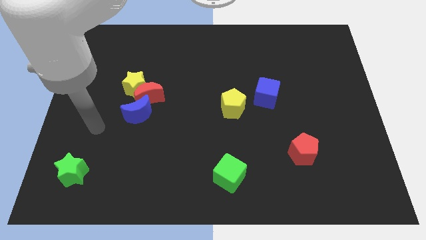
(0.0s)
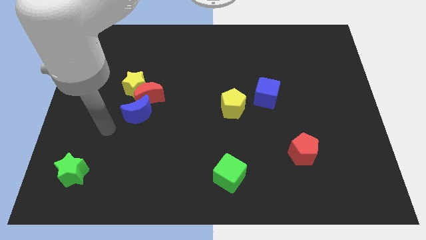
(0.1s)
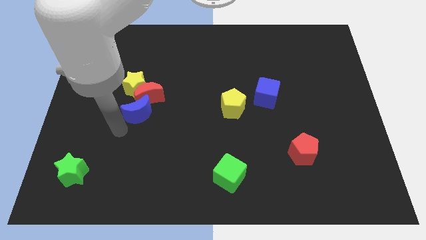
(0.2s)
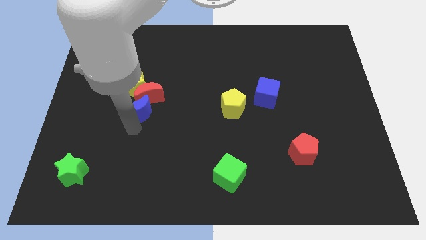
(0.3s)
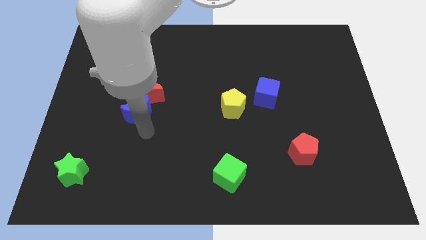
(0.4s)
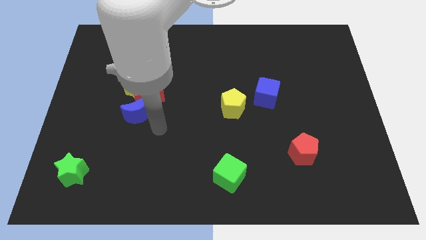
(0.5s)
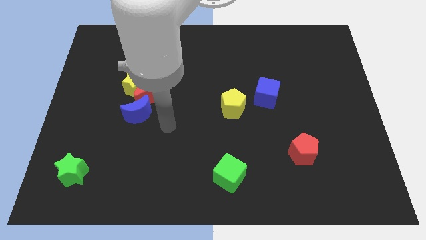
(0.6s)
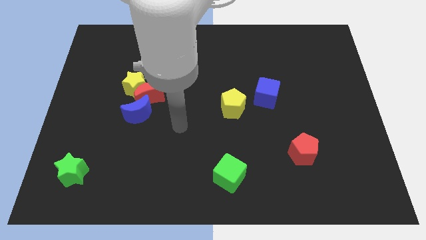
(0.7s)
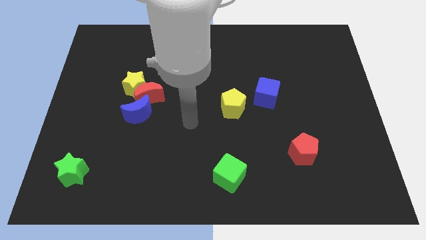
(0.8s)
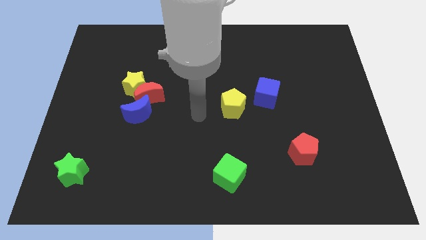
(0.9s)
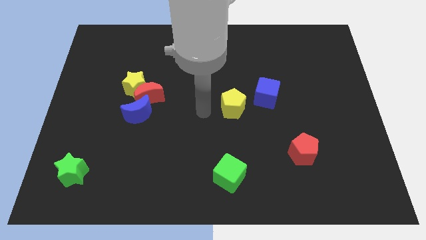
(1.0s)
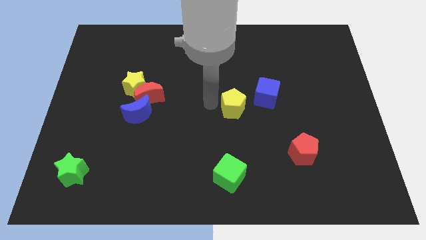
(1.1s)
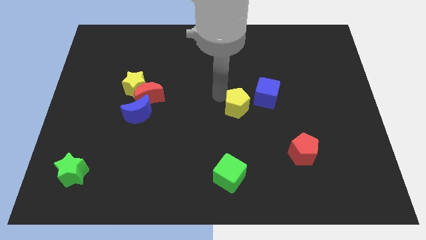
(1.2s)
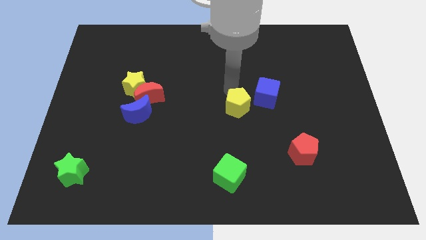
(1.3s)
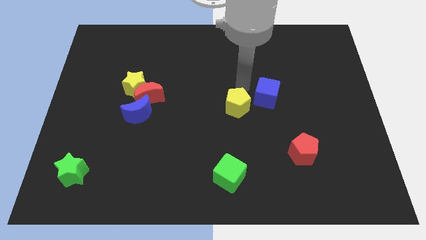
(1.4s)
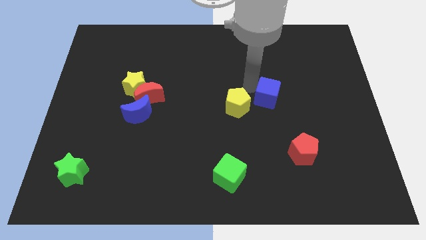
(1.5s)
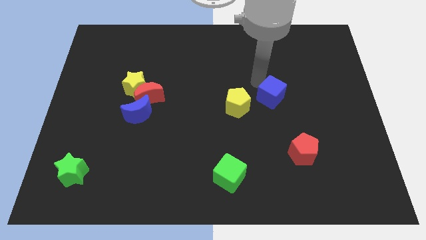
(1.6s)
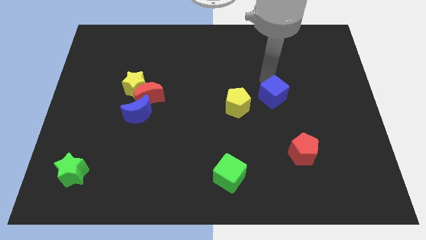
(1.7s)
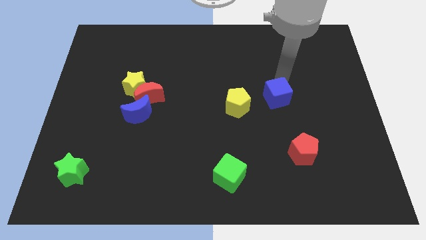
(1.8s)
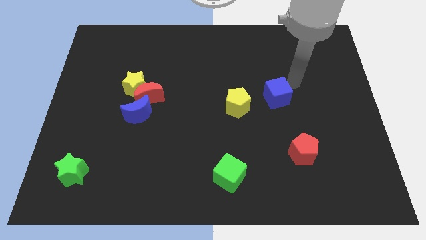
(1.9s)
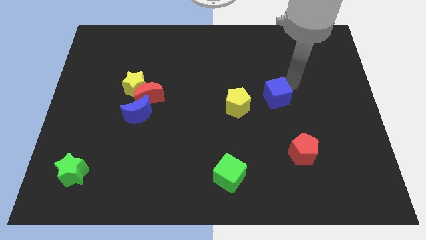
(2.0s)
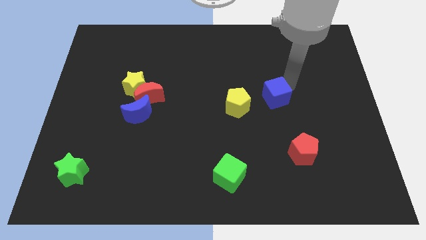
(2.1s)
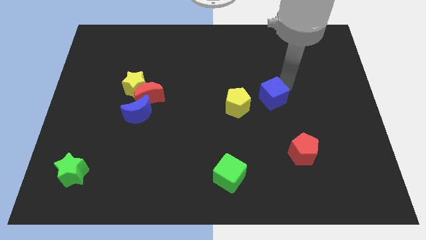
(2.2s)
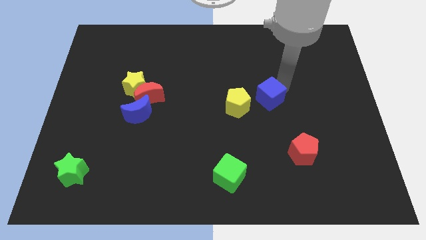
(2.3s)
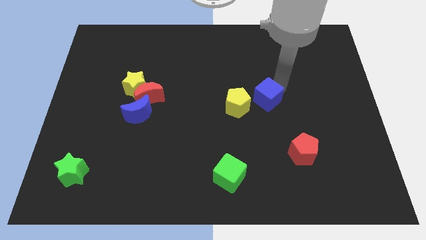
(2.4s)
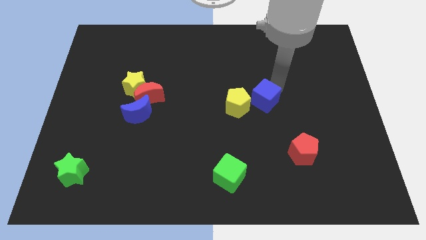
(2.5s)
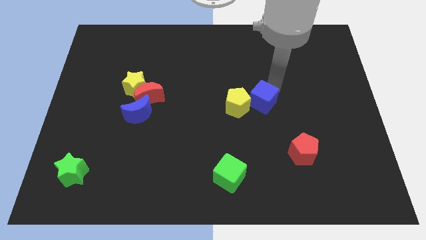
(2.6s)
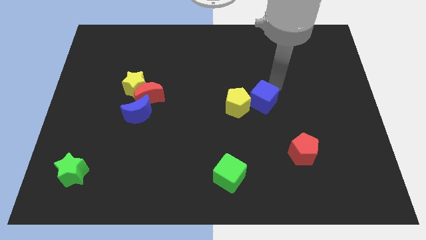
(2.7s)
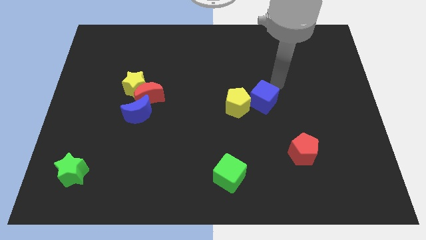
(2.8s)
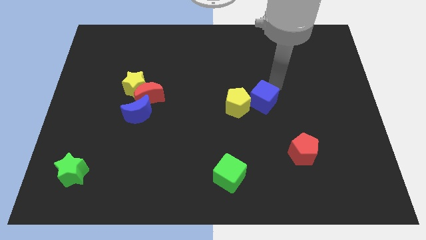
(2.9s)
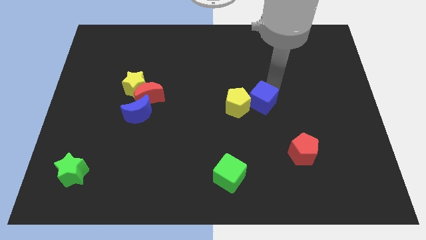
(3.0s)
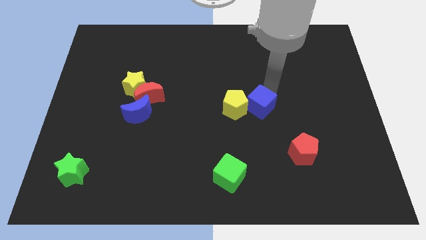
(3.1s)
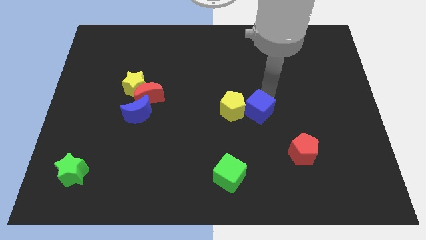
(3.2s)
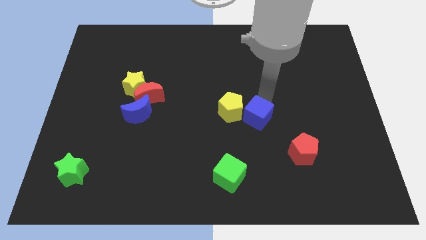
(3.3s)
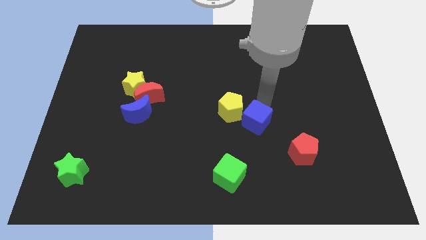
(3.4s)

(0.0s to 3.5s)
slide the blue cube downwards and then to the left a little

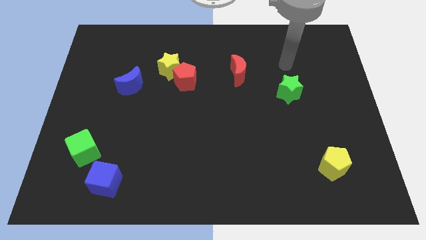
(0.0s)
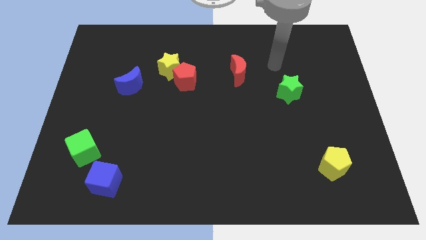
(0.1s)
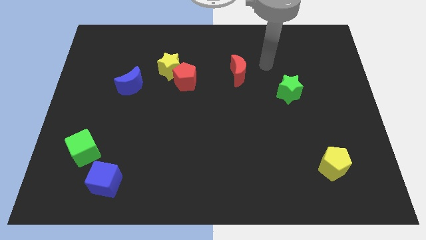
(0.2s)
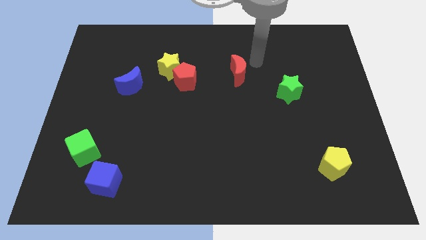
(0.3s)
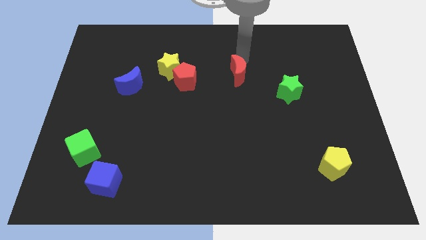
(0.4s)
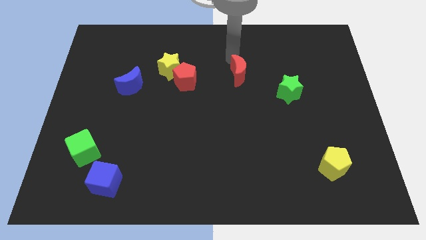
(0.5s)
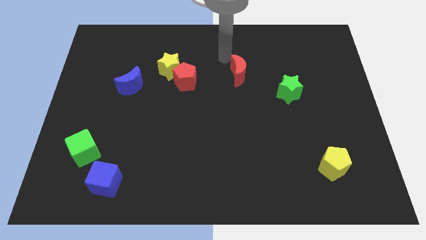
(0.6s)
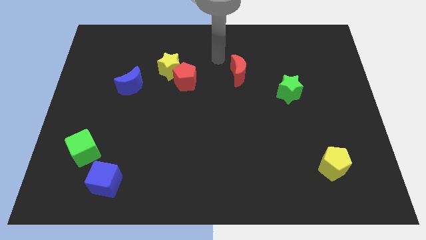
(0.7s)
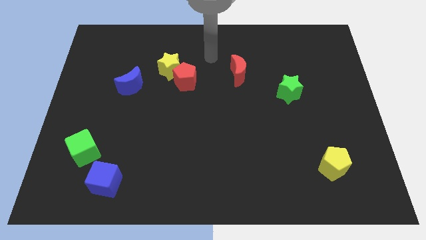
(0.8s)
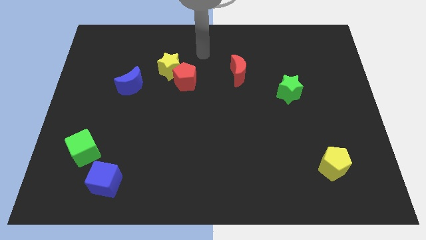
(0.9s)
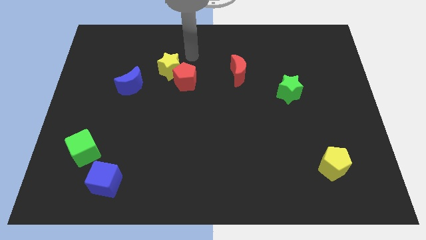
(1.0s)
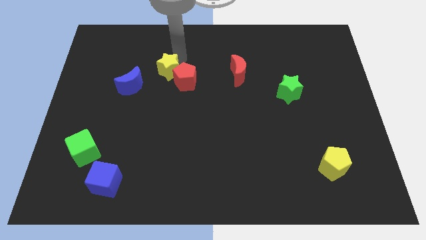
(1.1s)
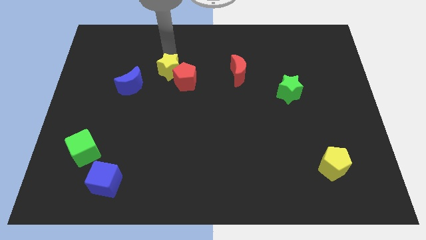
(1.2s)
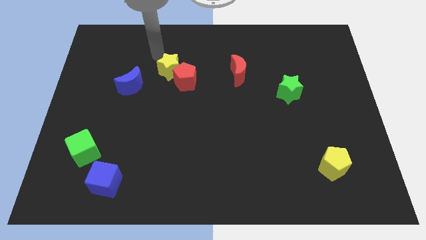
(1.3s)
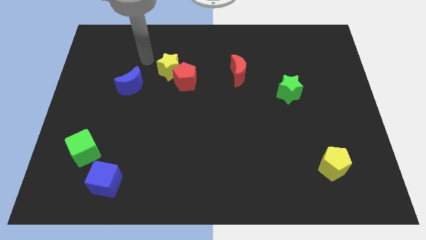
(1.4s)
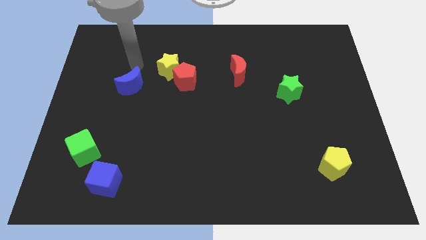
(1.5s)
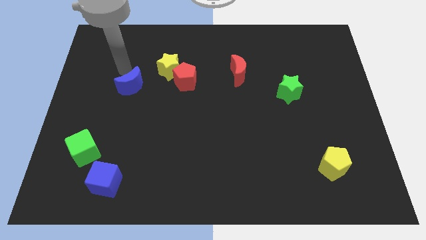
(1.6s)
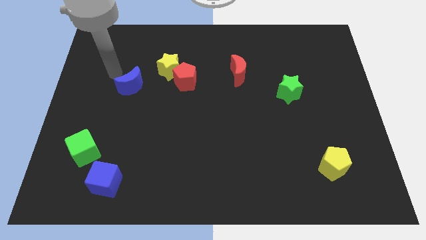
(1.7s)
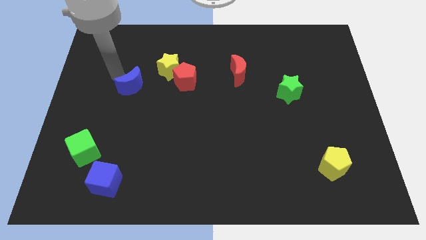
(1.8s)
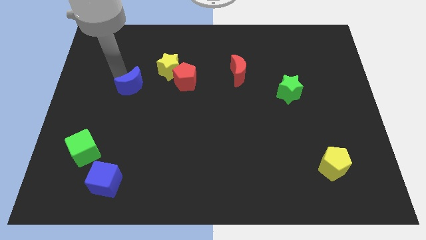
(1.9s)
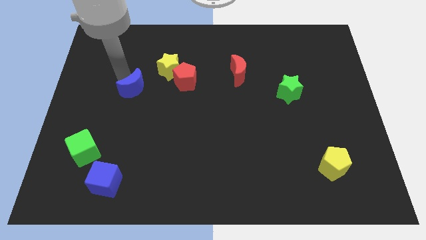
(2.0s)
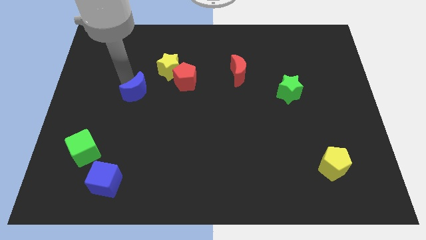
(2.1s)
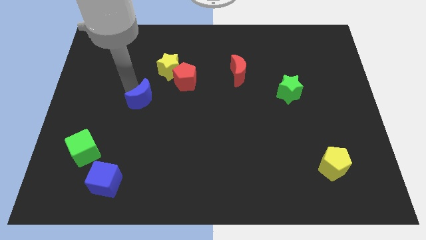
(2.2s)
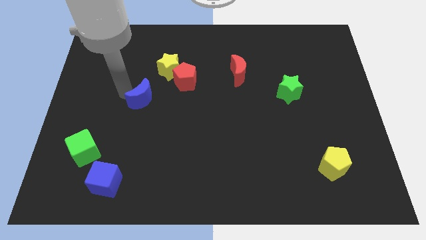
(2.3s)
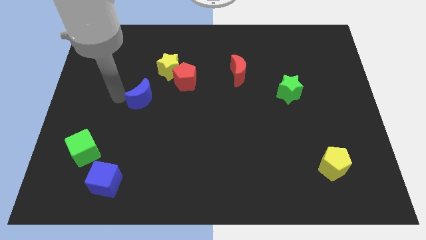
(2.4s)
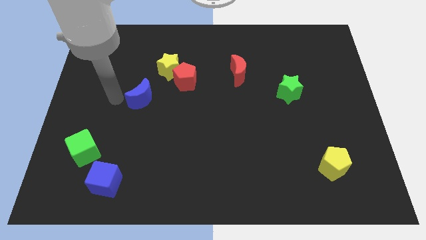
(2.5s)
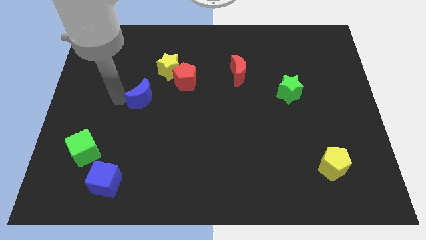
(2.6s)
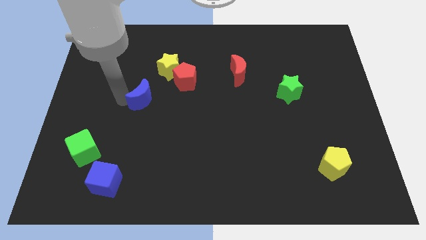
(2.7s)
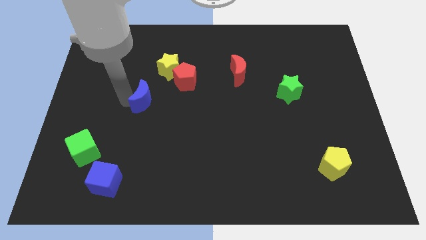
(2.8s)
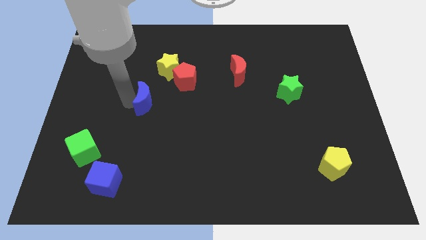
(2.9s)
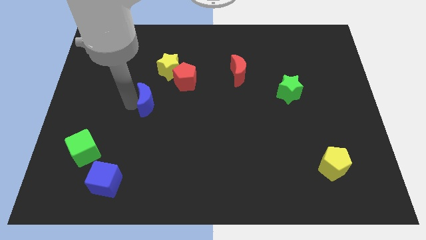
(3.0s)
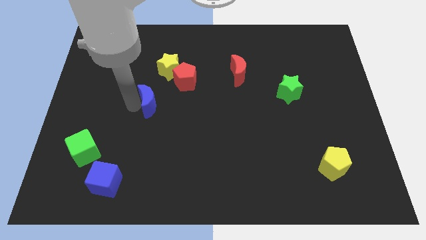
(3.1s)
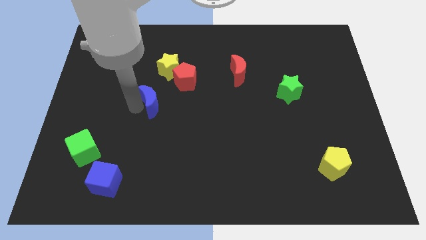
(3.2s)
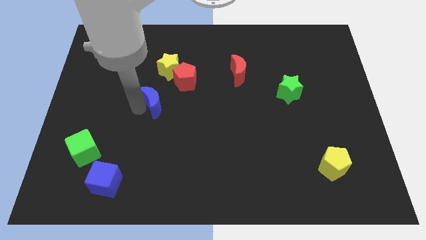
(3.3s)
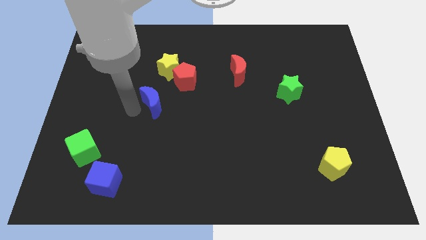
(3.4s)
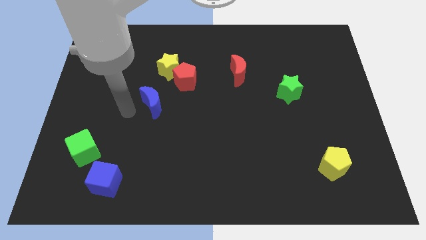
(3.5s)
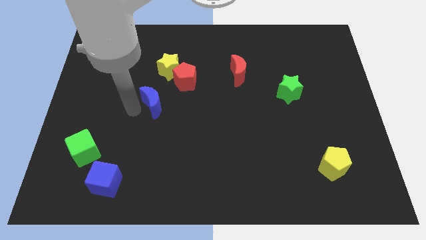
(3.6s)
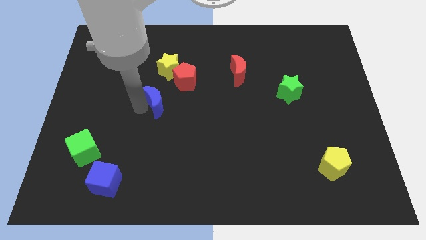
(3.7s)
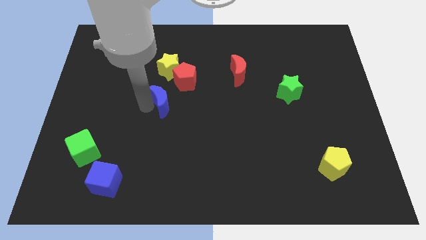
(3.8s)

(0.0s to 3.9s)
slide the blue moon slightly right

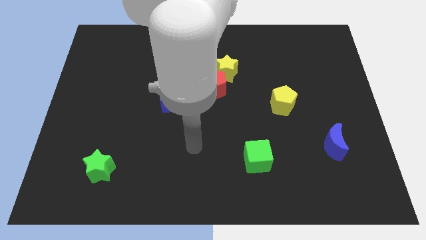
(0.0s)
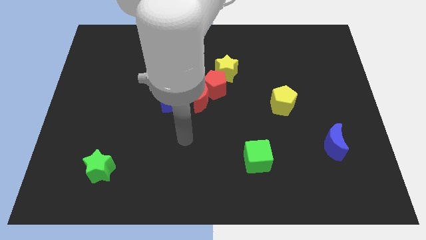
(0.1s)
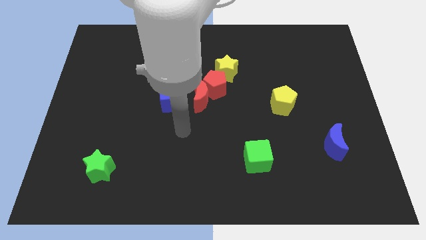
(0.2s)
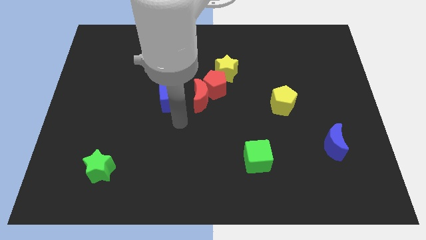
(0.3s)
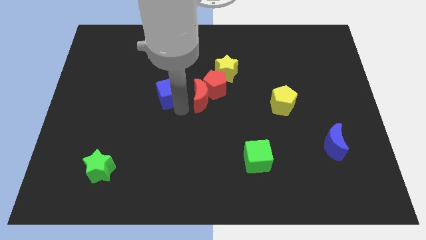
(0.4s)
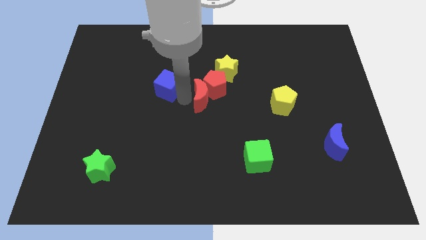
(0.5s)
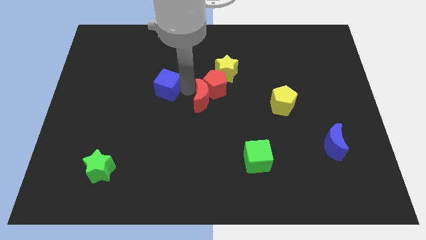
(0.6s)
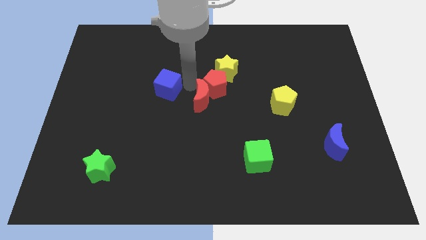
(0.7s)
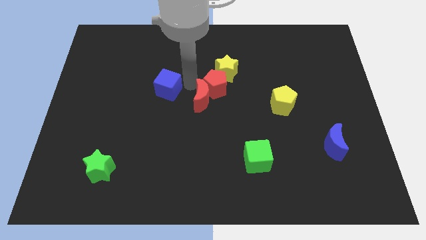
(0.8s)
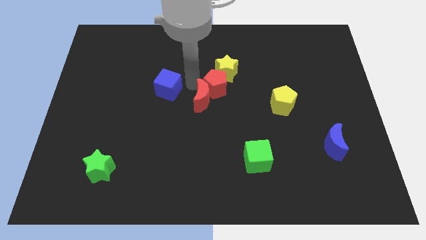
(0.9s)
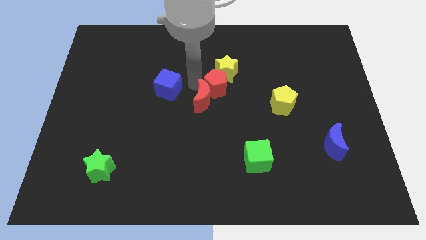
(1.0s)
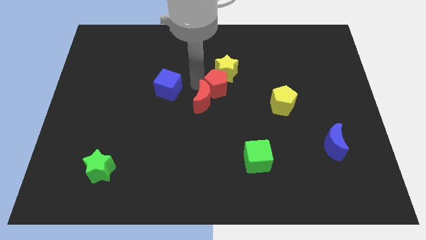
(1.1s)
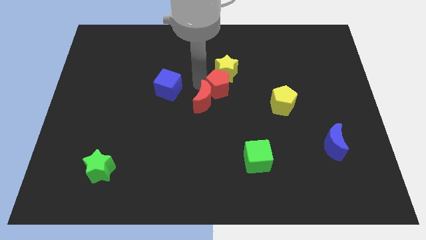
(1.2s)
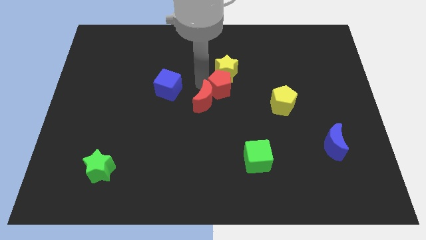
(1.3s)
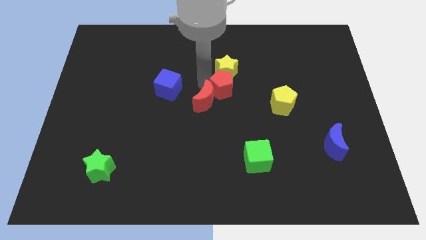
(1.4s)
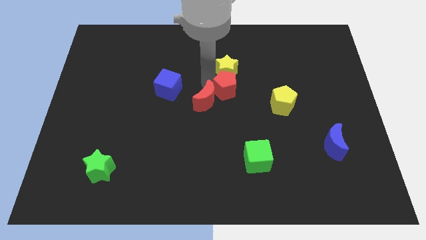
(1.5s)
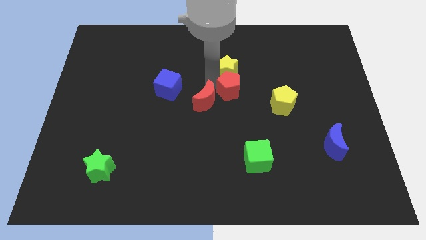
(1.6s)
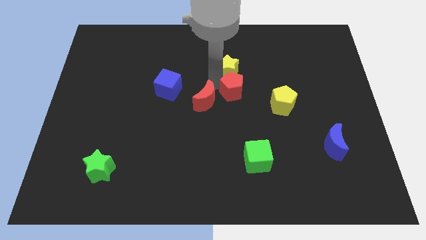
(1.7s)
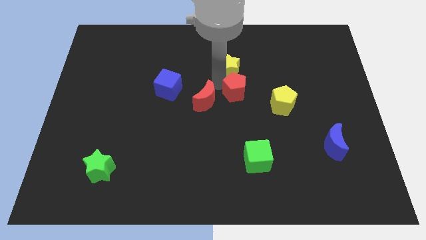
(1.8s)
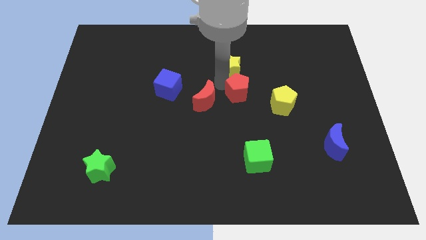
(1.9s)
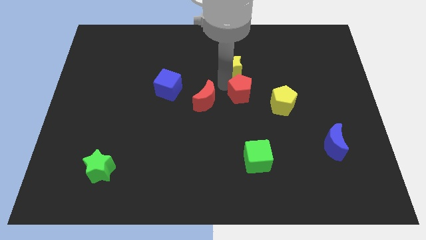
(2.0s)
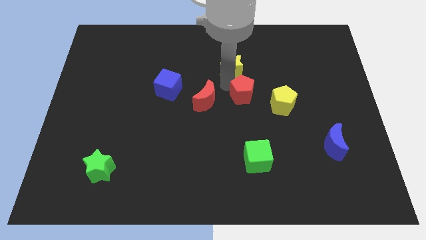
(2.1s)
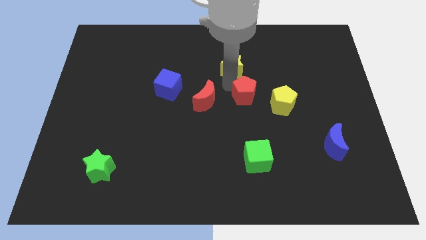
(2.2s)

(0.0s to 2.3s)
move the red pentagon a bit to the right
